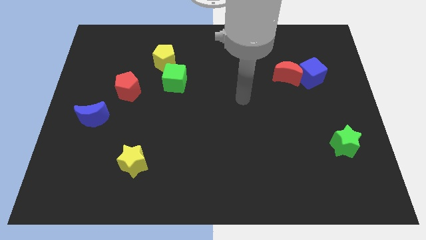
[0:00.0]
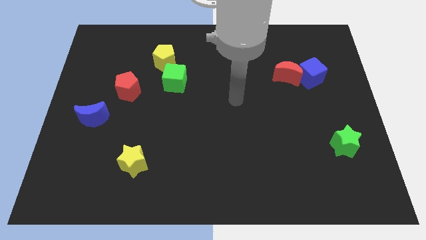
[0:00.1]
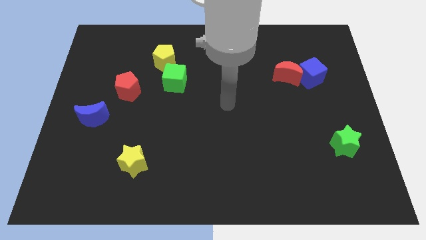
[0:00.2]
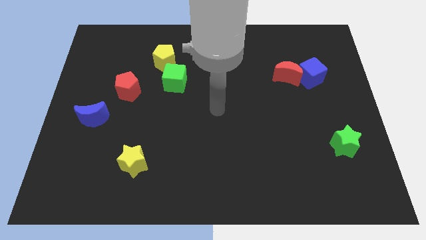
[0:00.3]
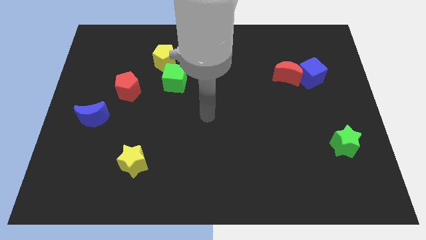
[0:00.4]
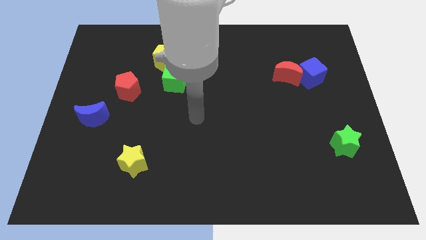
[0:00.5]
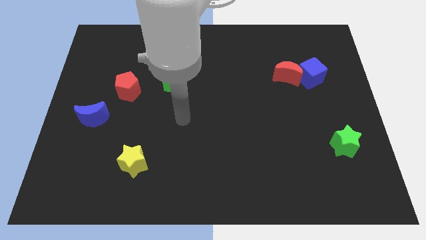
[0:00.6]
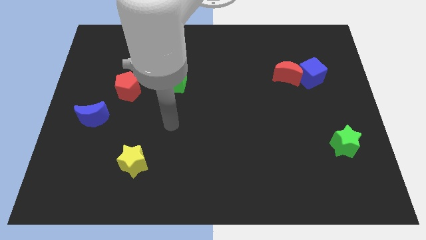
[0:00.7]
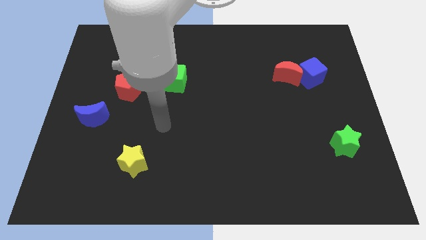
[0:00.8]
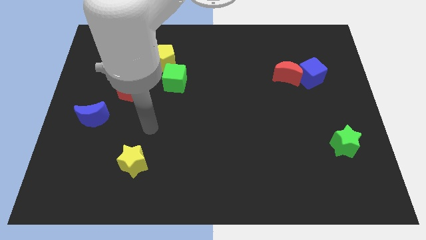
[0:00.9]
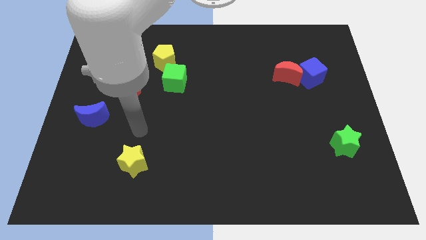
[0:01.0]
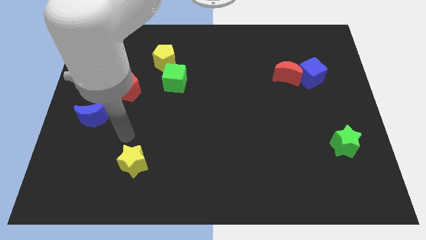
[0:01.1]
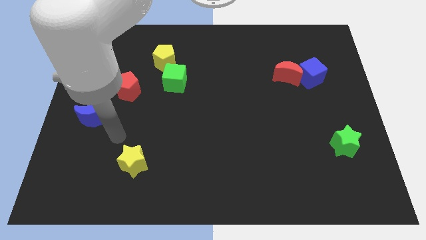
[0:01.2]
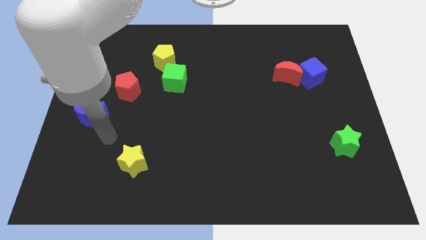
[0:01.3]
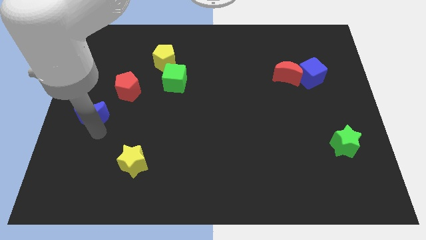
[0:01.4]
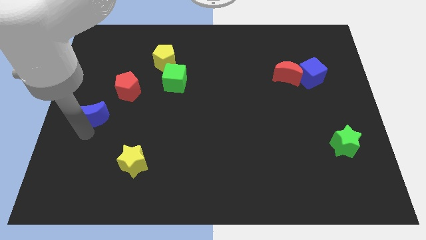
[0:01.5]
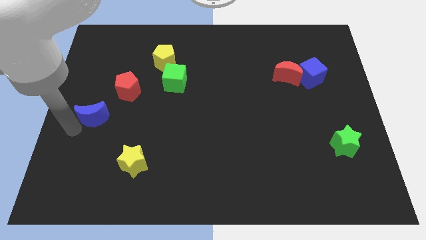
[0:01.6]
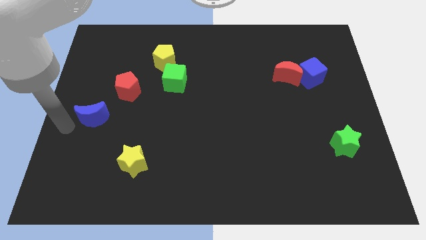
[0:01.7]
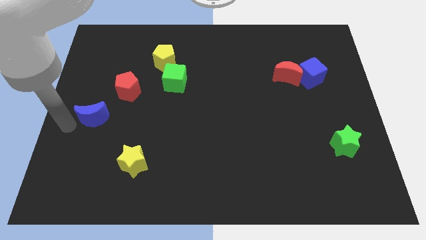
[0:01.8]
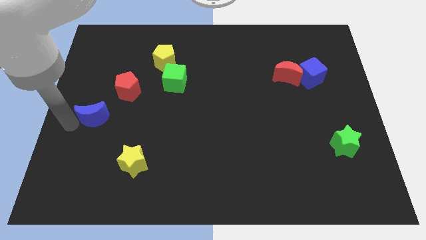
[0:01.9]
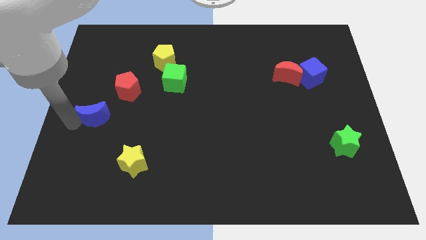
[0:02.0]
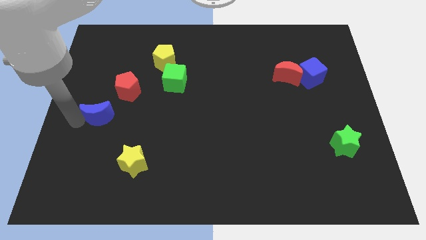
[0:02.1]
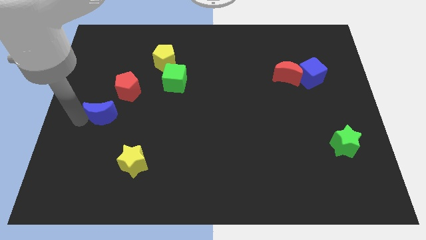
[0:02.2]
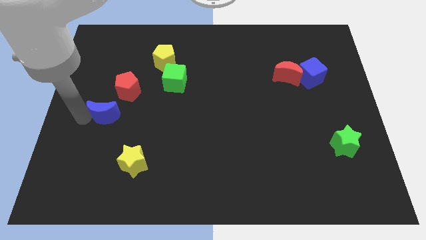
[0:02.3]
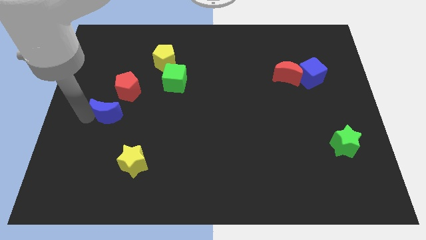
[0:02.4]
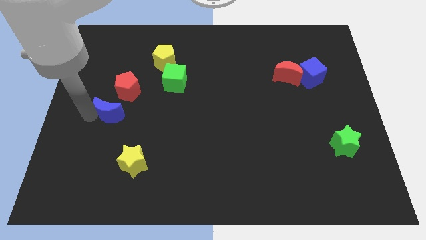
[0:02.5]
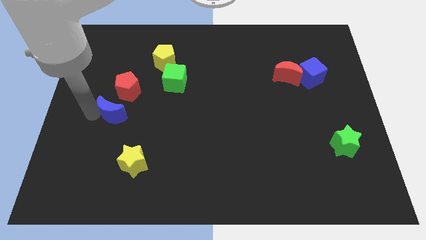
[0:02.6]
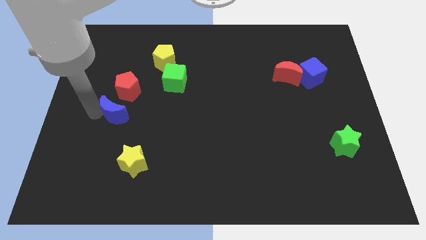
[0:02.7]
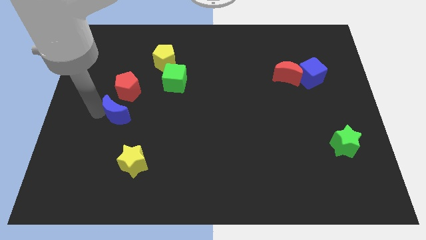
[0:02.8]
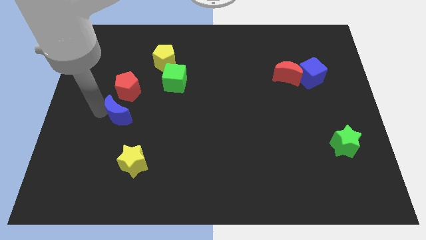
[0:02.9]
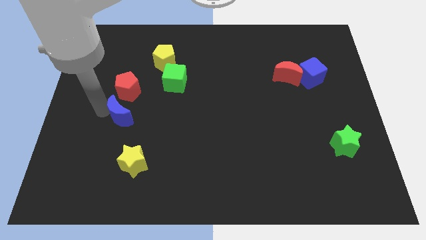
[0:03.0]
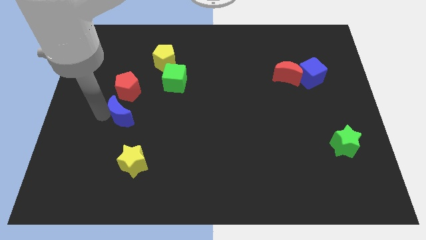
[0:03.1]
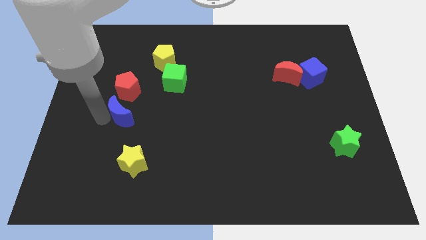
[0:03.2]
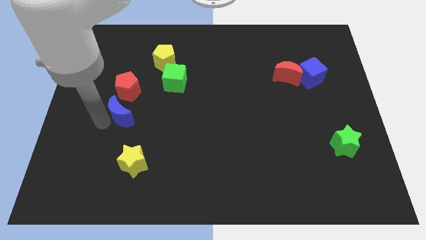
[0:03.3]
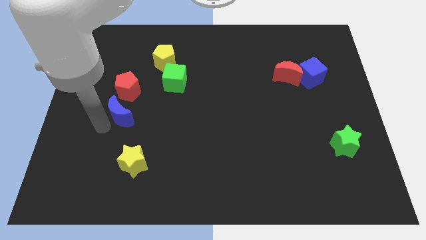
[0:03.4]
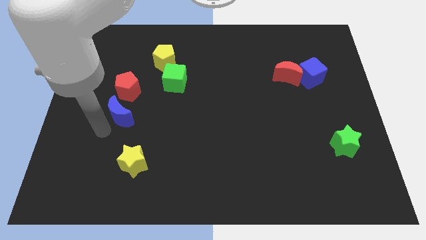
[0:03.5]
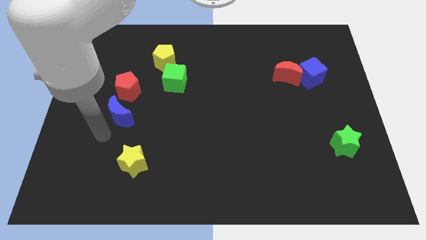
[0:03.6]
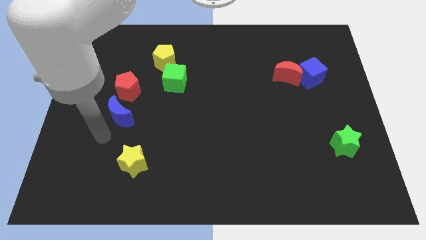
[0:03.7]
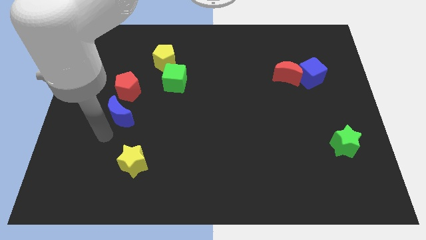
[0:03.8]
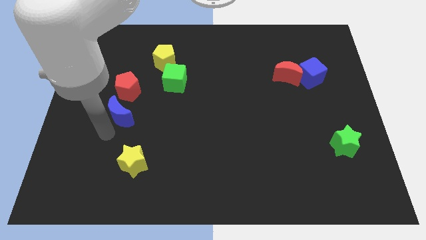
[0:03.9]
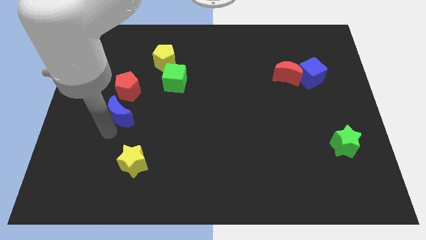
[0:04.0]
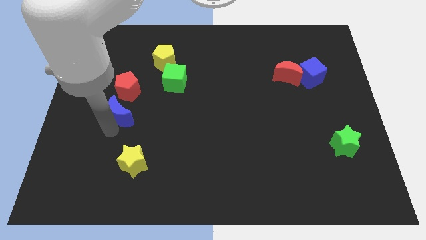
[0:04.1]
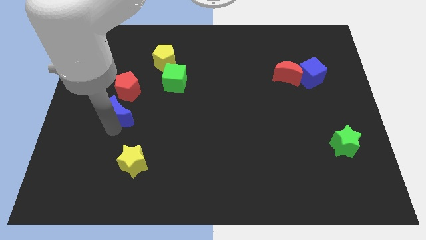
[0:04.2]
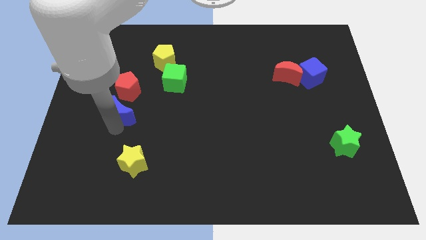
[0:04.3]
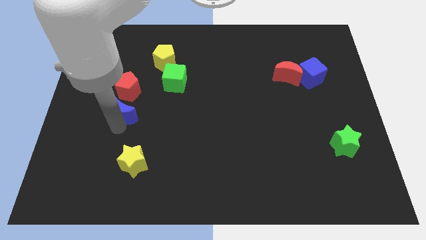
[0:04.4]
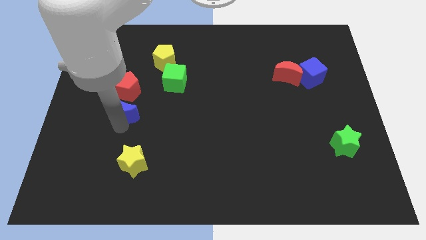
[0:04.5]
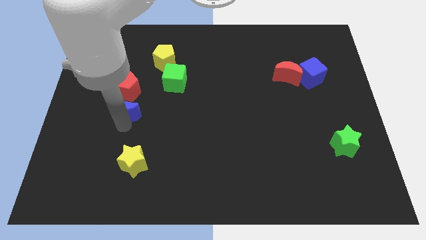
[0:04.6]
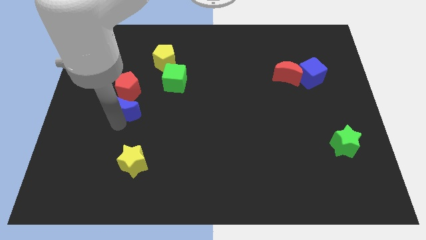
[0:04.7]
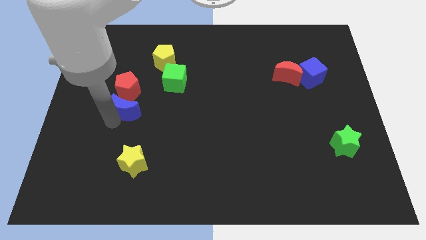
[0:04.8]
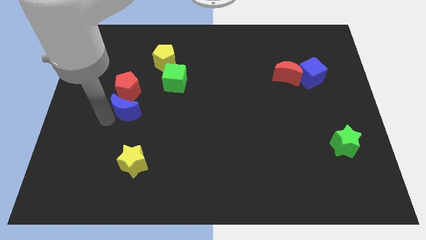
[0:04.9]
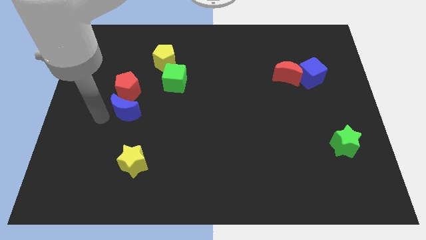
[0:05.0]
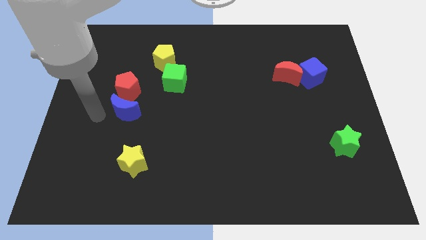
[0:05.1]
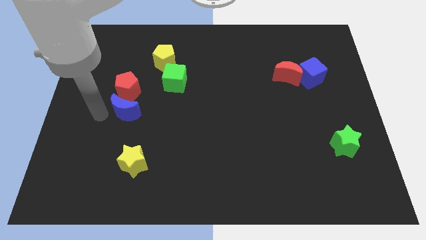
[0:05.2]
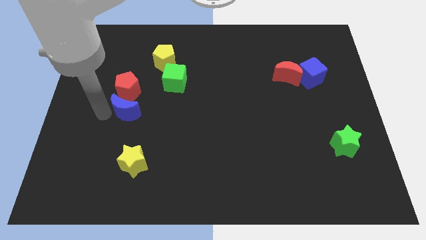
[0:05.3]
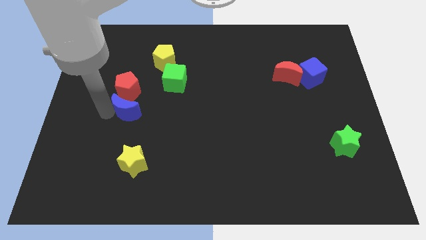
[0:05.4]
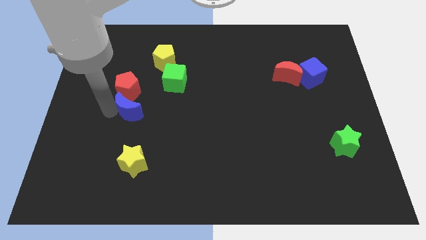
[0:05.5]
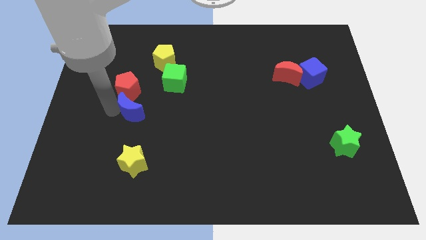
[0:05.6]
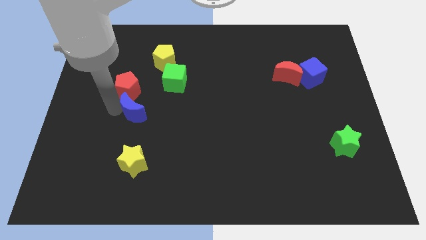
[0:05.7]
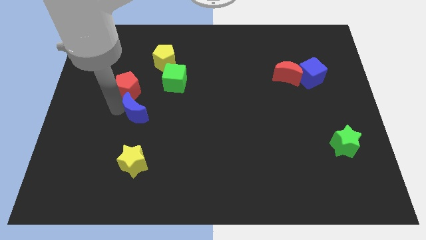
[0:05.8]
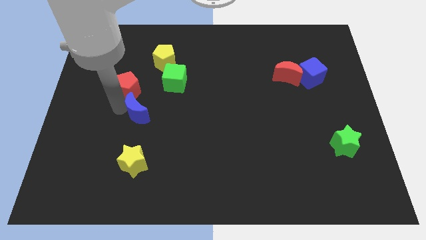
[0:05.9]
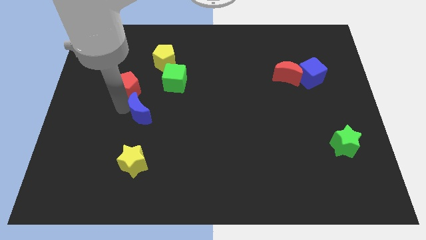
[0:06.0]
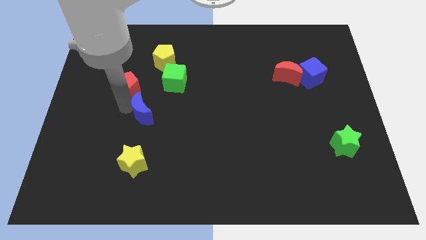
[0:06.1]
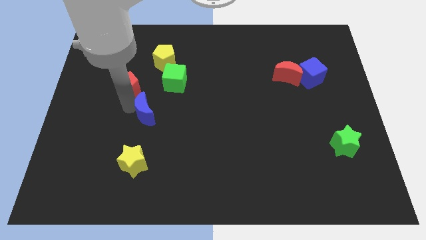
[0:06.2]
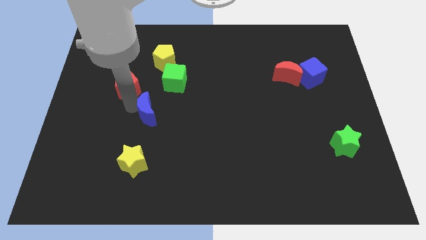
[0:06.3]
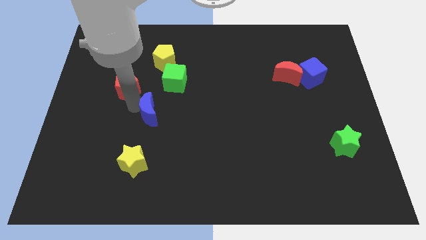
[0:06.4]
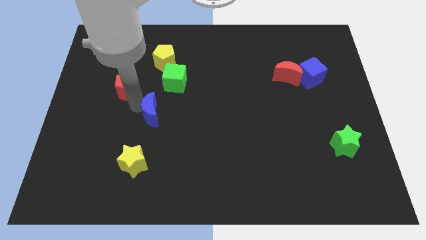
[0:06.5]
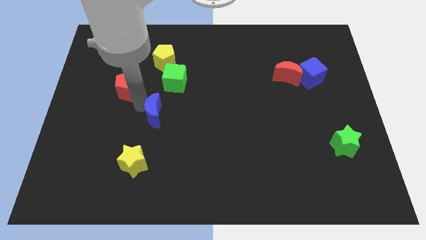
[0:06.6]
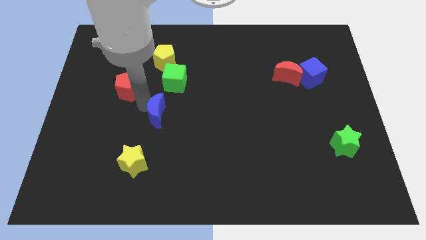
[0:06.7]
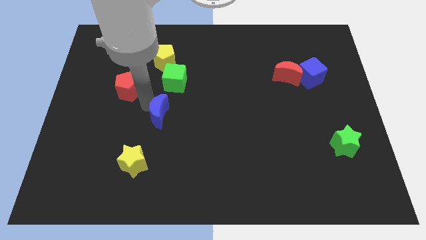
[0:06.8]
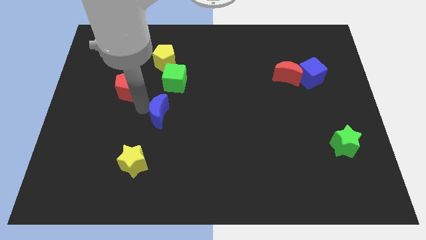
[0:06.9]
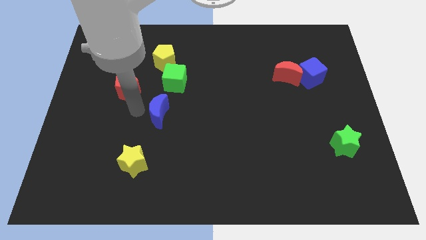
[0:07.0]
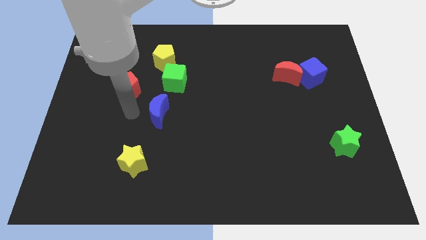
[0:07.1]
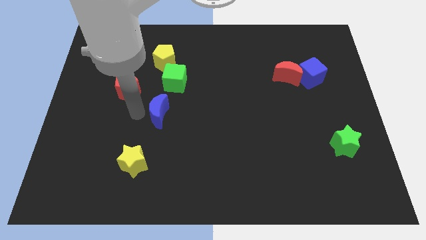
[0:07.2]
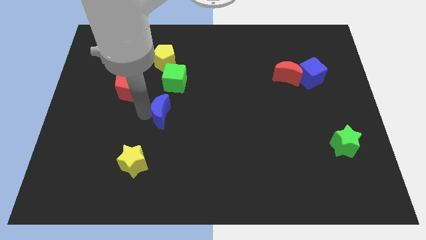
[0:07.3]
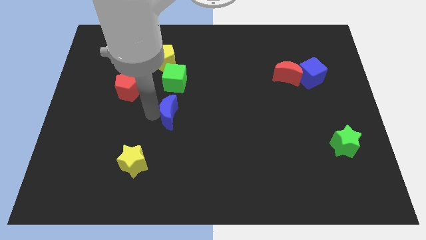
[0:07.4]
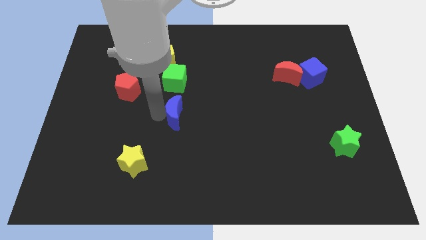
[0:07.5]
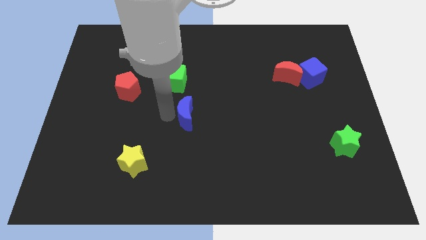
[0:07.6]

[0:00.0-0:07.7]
move the blue moon to the right
